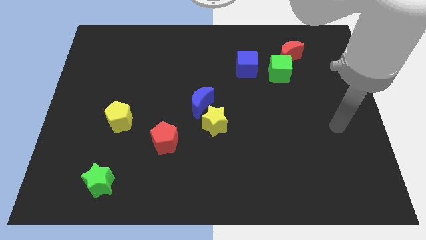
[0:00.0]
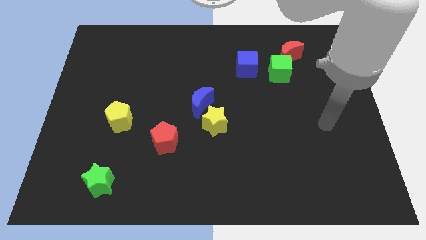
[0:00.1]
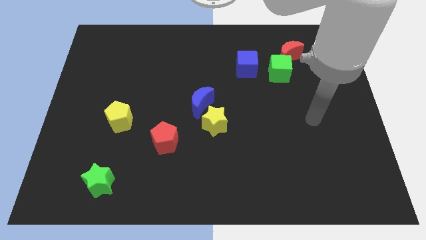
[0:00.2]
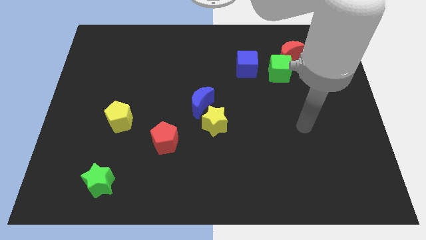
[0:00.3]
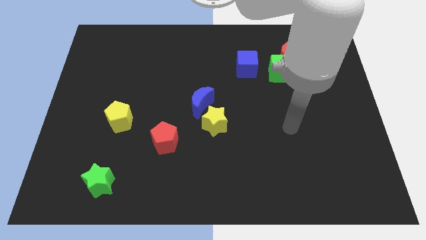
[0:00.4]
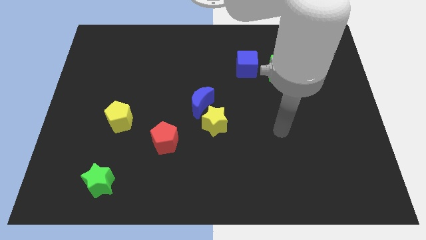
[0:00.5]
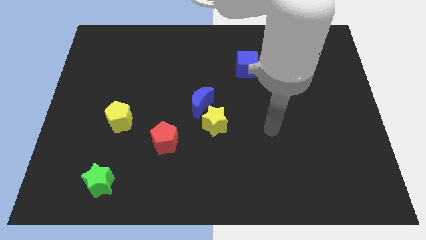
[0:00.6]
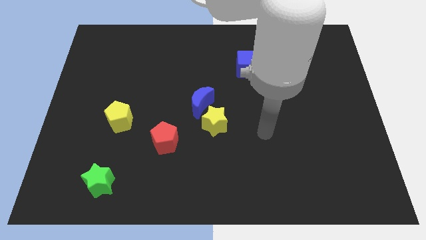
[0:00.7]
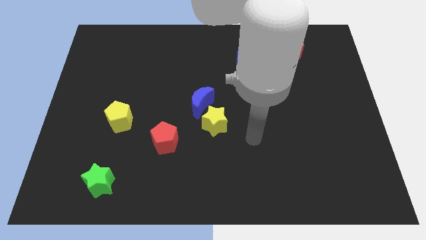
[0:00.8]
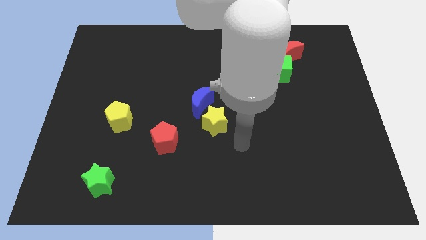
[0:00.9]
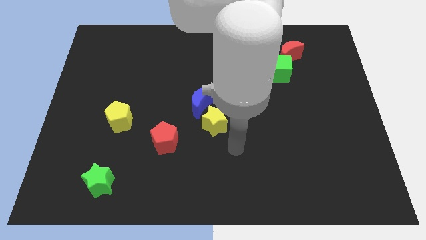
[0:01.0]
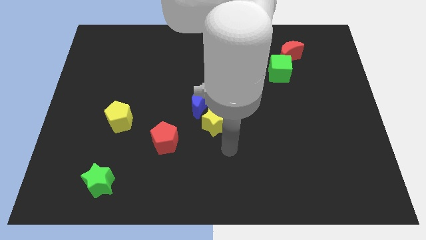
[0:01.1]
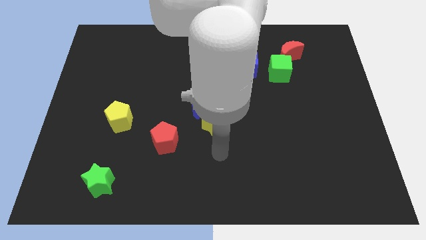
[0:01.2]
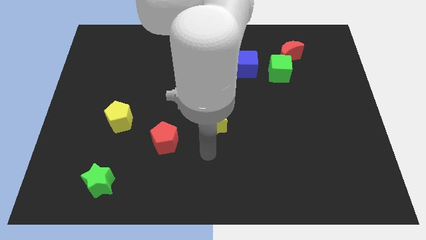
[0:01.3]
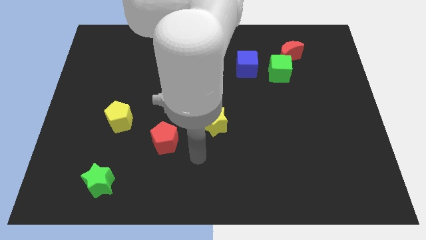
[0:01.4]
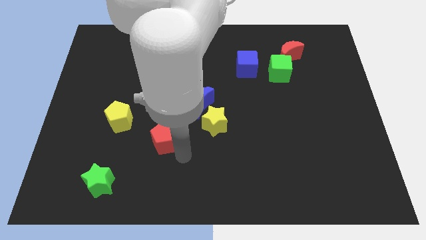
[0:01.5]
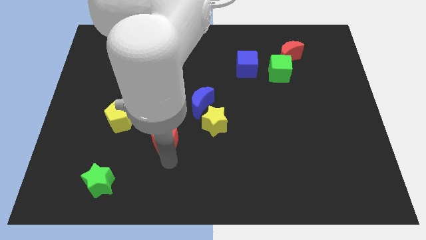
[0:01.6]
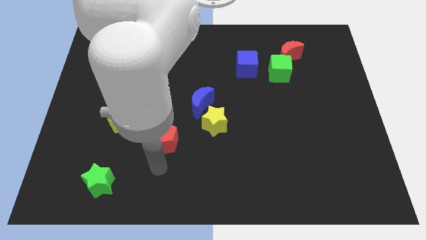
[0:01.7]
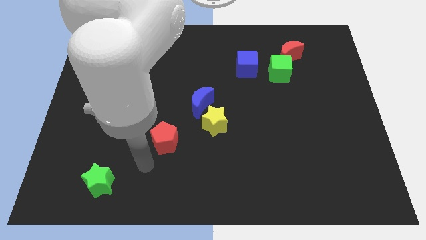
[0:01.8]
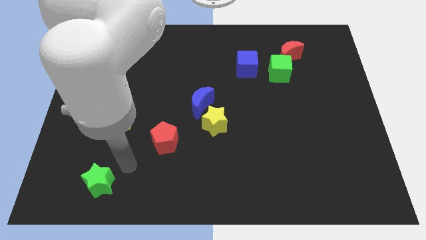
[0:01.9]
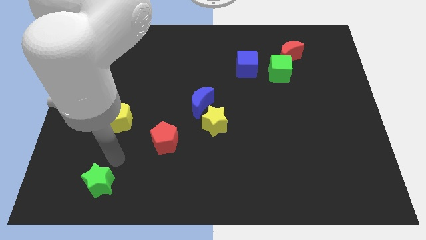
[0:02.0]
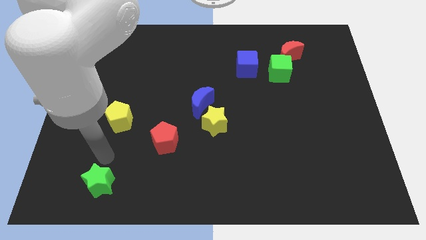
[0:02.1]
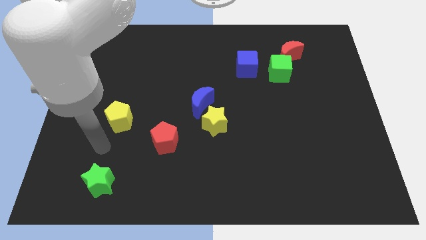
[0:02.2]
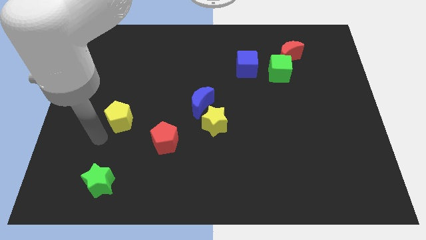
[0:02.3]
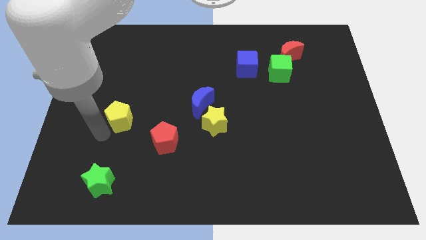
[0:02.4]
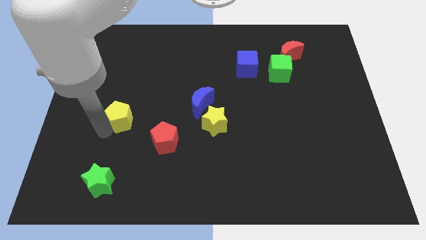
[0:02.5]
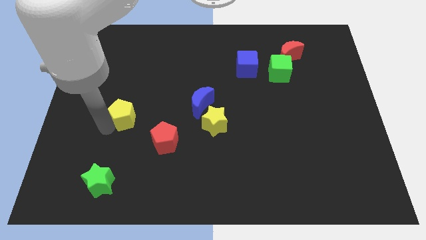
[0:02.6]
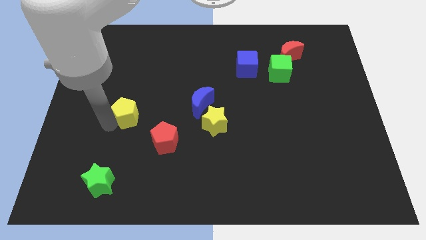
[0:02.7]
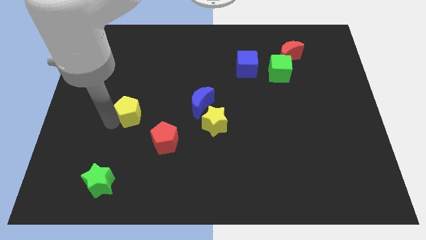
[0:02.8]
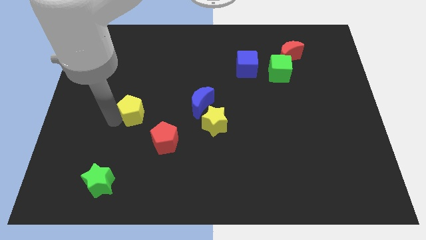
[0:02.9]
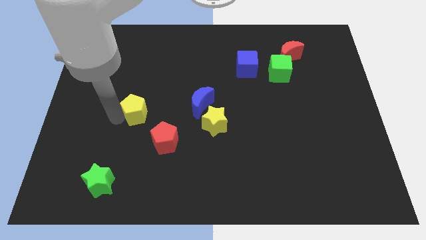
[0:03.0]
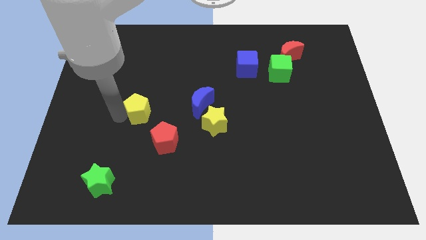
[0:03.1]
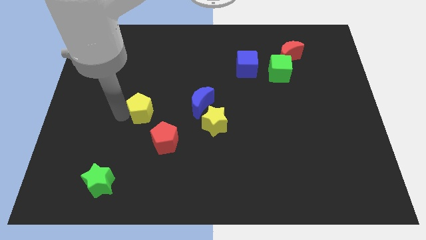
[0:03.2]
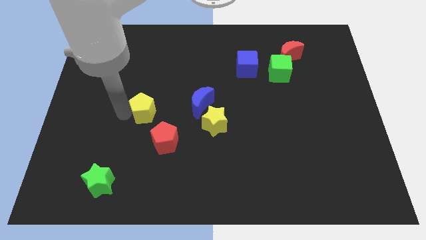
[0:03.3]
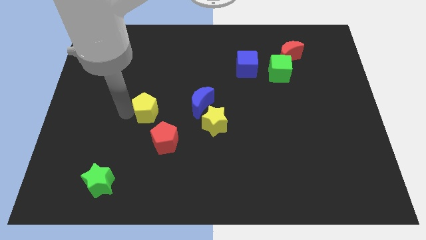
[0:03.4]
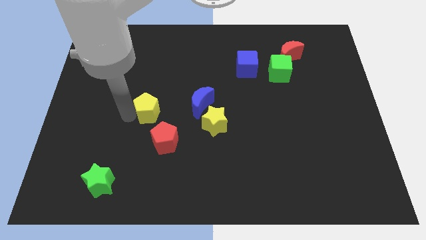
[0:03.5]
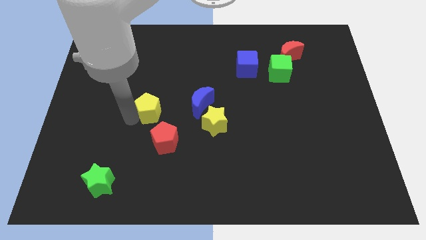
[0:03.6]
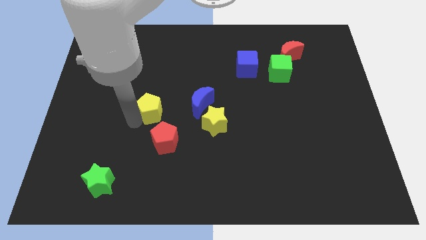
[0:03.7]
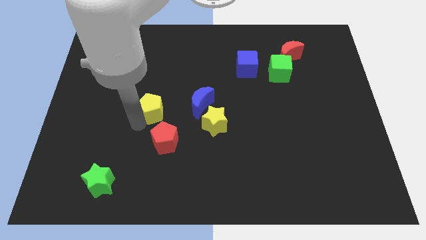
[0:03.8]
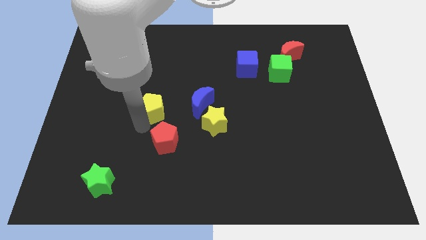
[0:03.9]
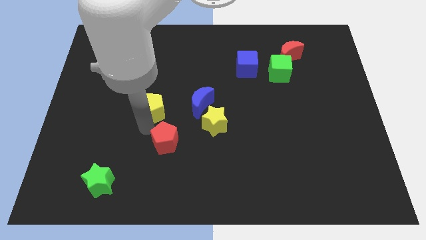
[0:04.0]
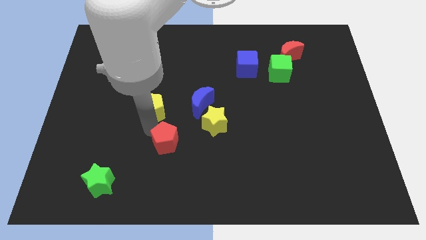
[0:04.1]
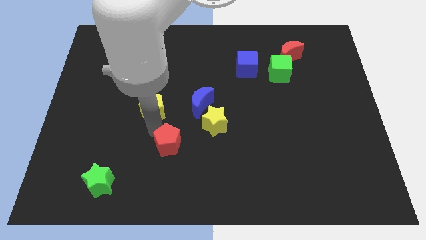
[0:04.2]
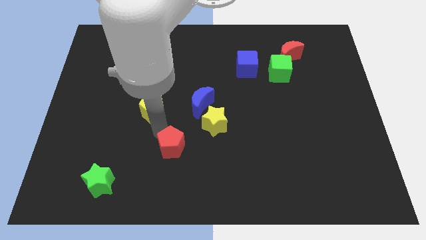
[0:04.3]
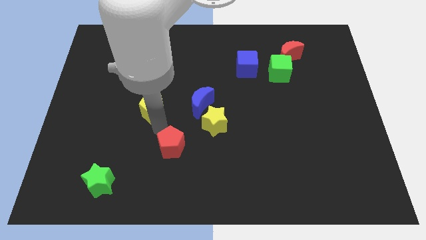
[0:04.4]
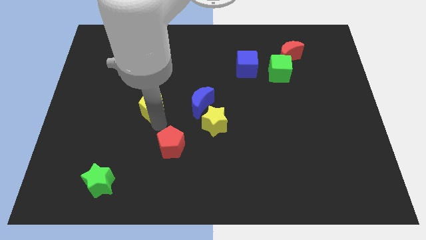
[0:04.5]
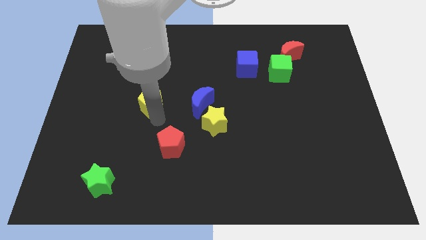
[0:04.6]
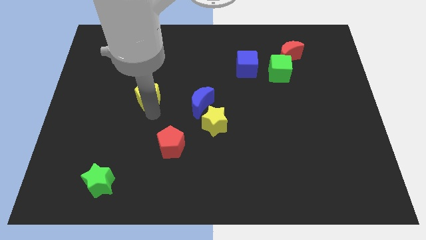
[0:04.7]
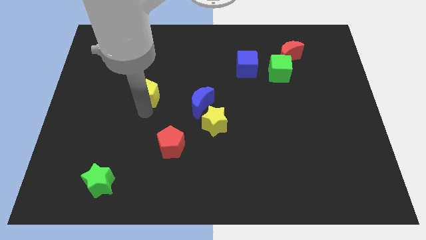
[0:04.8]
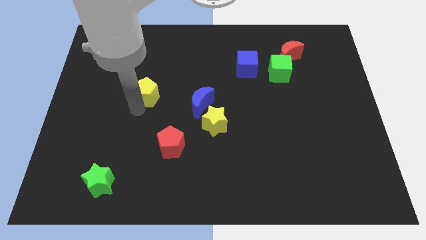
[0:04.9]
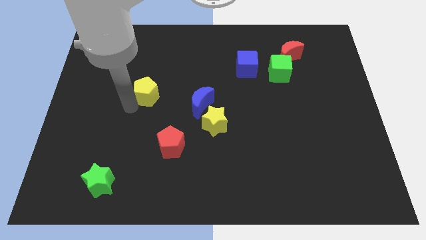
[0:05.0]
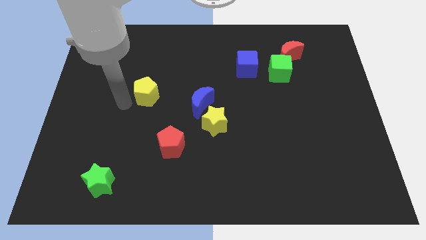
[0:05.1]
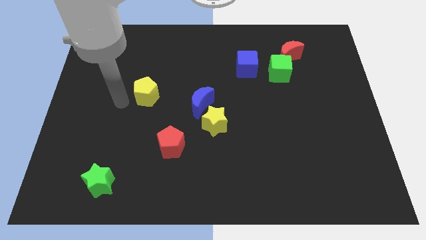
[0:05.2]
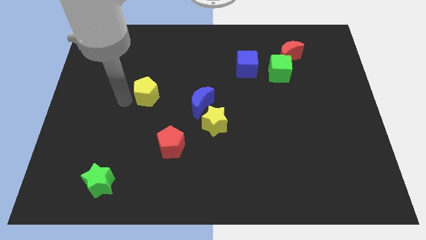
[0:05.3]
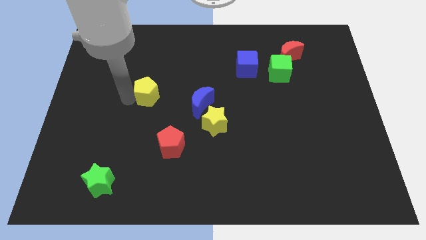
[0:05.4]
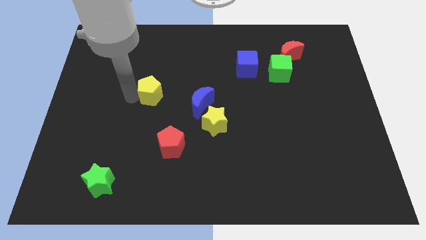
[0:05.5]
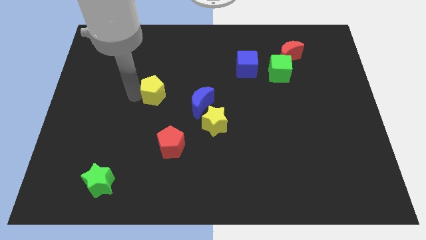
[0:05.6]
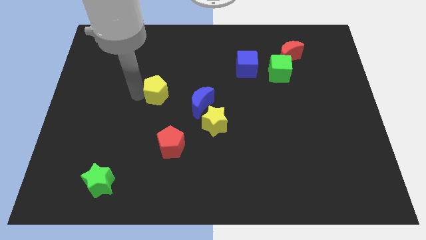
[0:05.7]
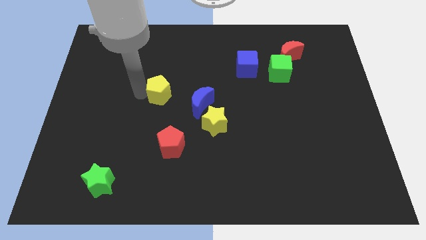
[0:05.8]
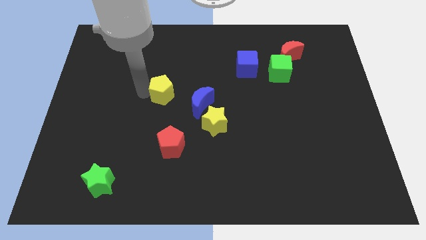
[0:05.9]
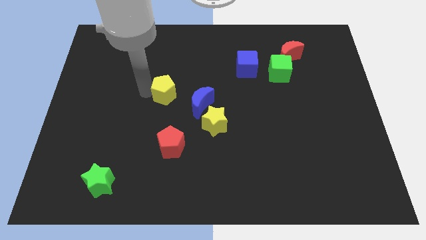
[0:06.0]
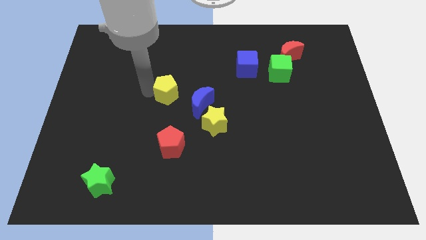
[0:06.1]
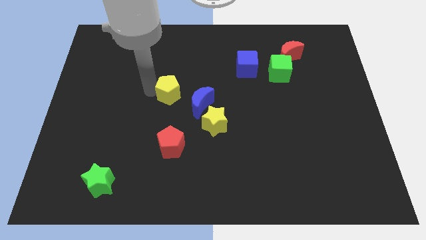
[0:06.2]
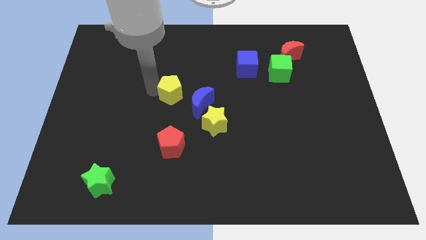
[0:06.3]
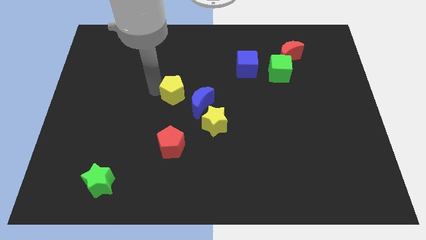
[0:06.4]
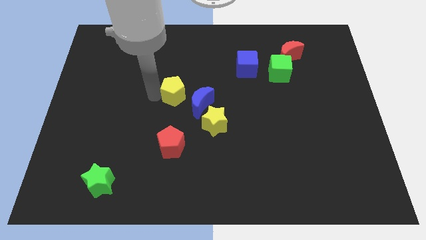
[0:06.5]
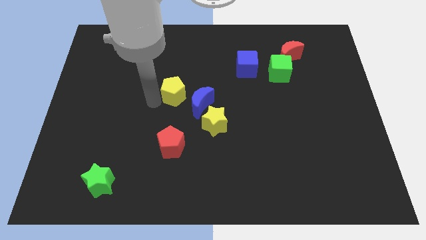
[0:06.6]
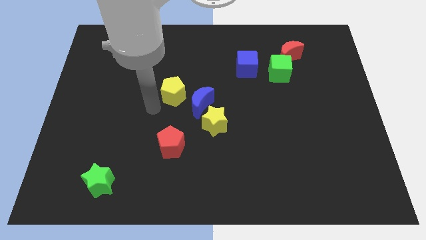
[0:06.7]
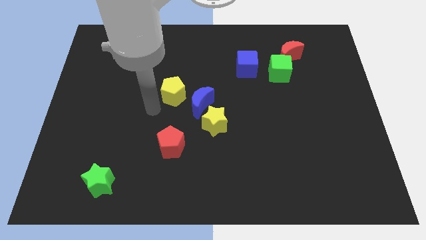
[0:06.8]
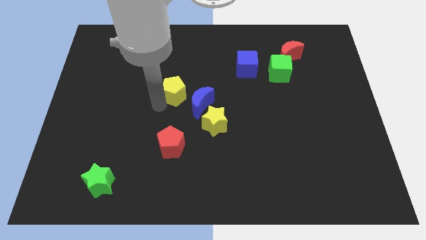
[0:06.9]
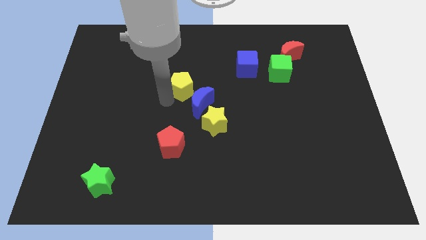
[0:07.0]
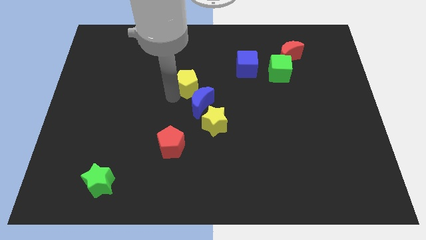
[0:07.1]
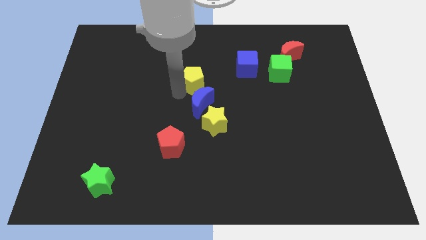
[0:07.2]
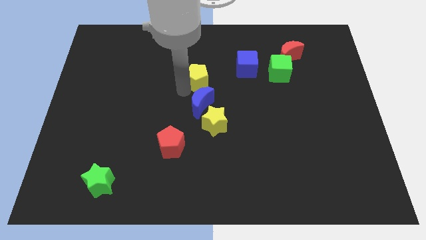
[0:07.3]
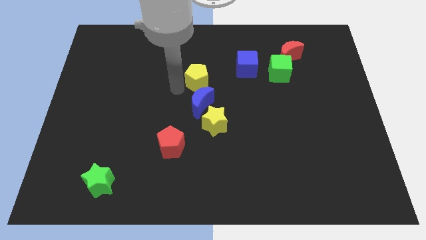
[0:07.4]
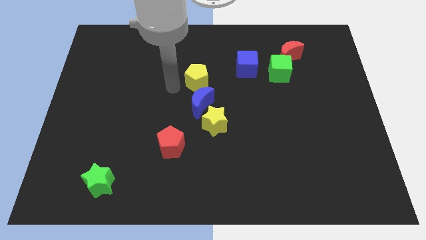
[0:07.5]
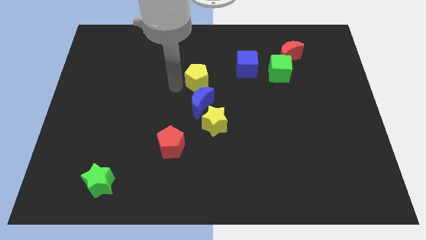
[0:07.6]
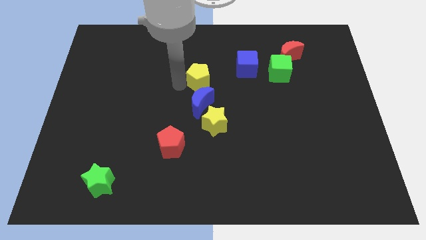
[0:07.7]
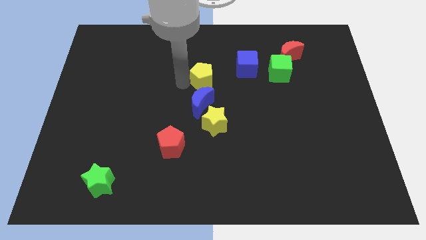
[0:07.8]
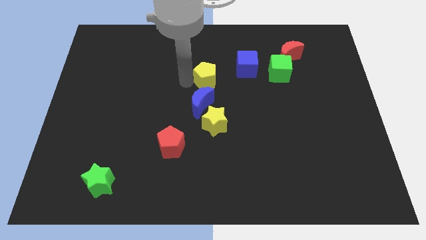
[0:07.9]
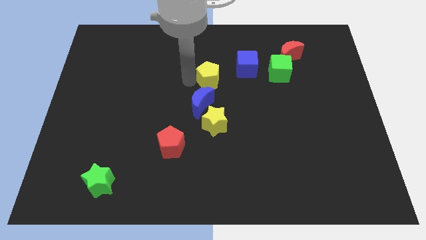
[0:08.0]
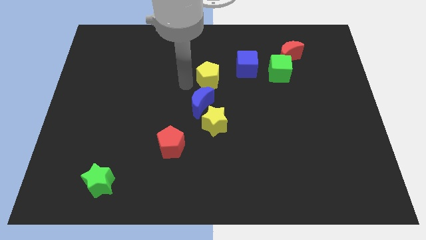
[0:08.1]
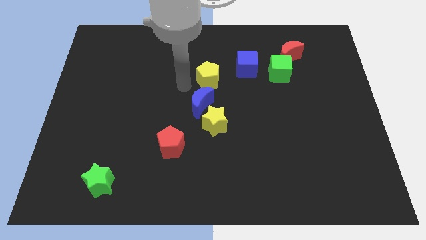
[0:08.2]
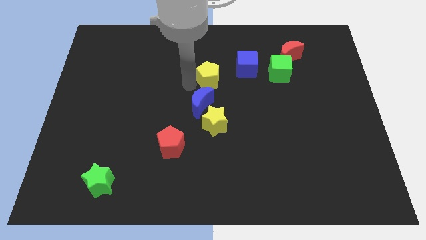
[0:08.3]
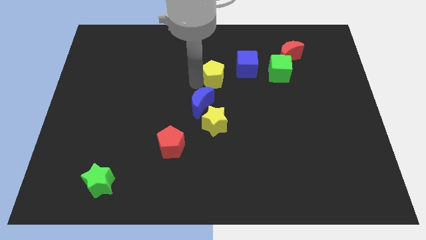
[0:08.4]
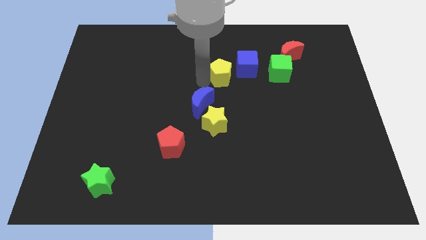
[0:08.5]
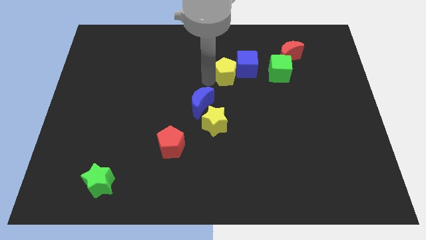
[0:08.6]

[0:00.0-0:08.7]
slide the yellow pentagon to the blue cube
